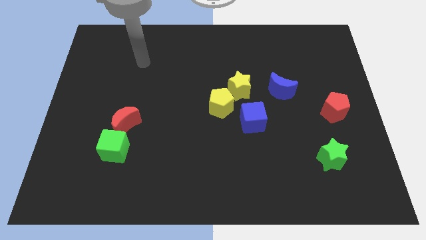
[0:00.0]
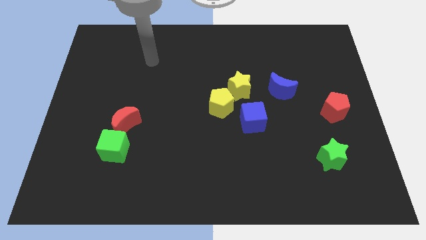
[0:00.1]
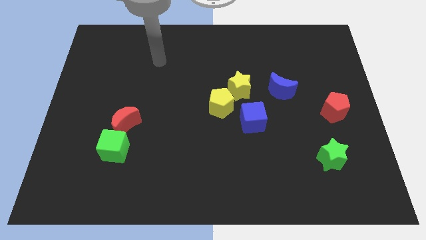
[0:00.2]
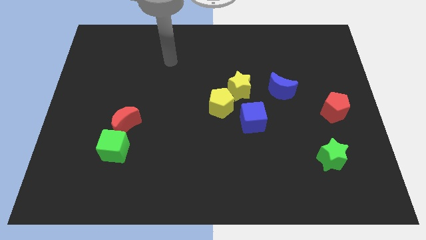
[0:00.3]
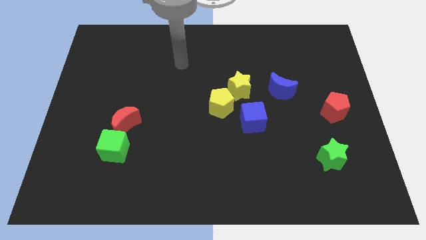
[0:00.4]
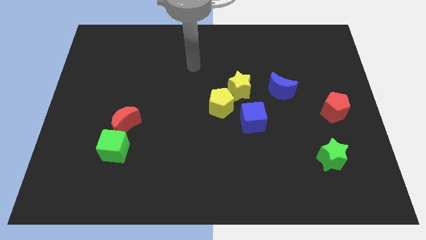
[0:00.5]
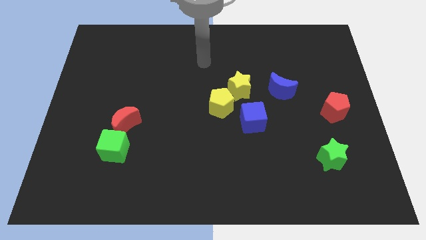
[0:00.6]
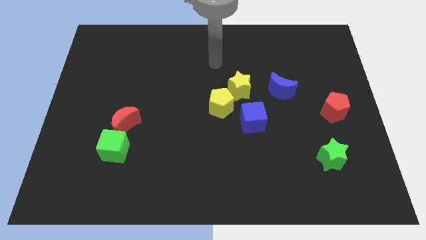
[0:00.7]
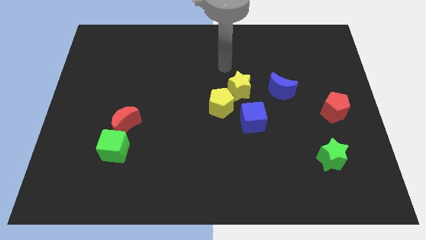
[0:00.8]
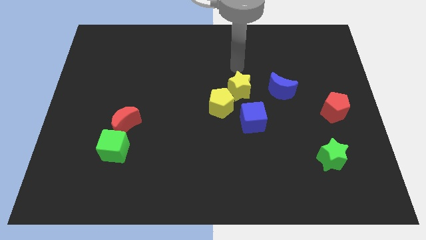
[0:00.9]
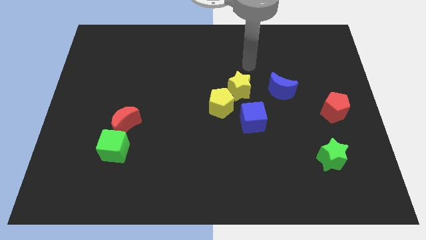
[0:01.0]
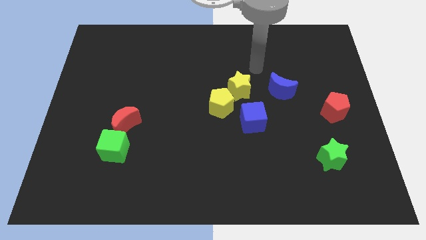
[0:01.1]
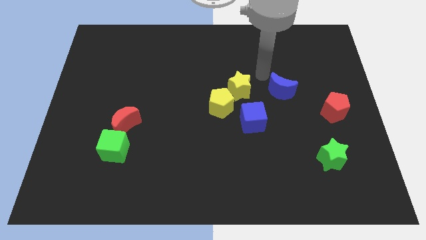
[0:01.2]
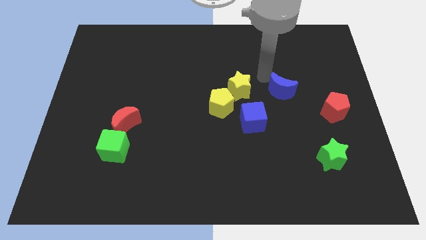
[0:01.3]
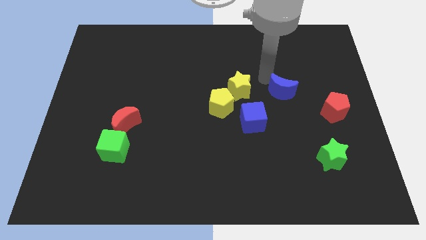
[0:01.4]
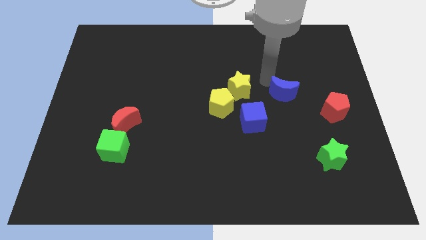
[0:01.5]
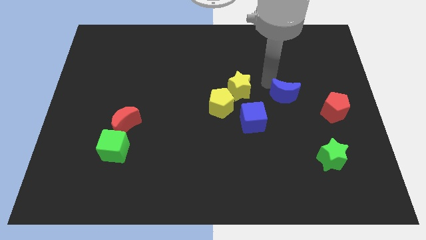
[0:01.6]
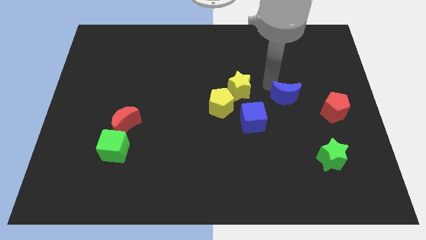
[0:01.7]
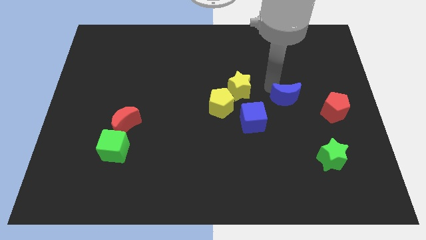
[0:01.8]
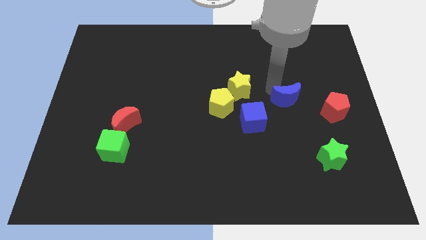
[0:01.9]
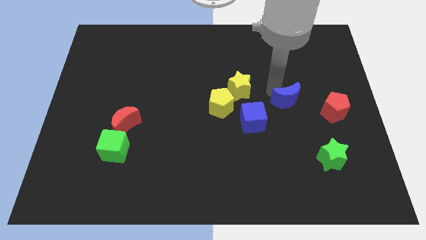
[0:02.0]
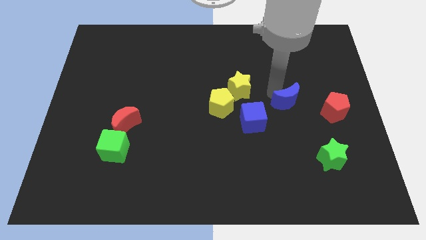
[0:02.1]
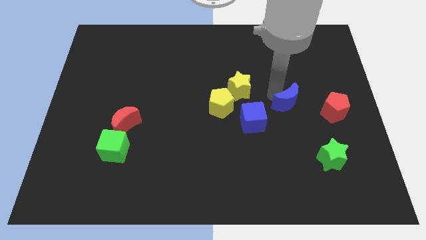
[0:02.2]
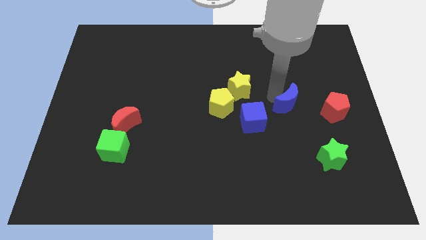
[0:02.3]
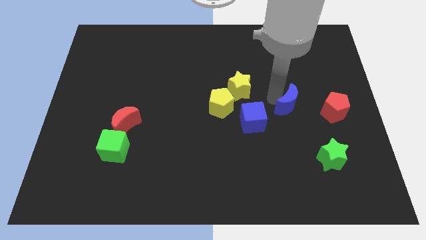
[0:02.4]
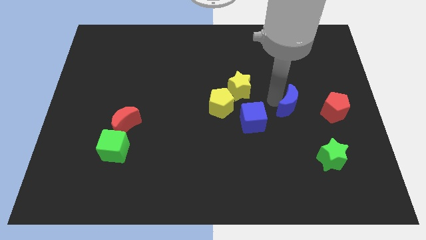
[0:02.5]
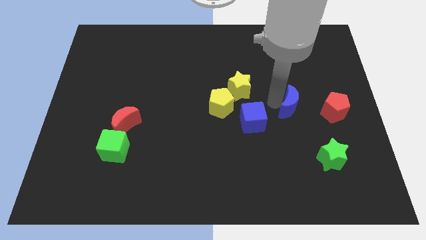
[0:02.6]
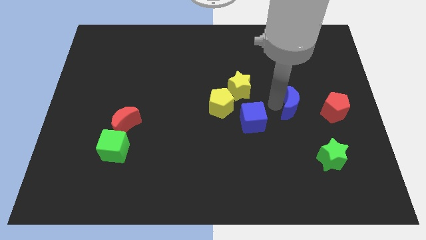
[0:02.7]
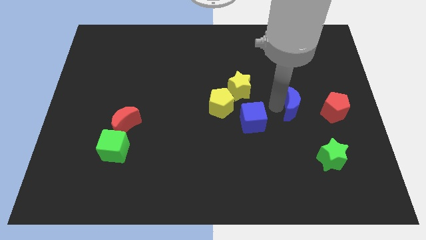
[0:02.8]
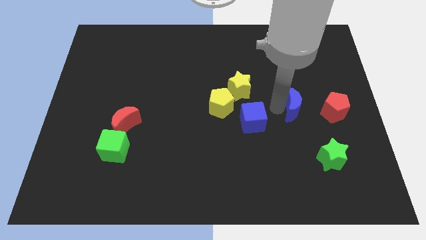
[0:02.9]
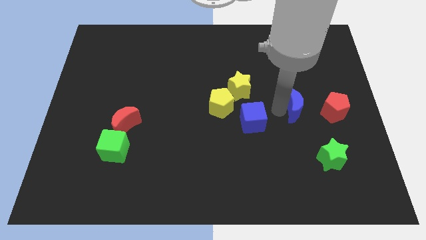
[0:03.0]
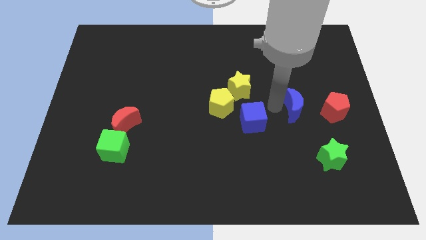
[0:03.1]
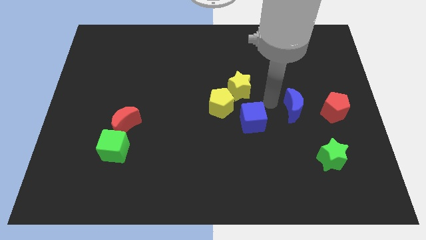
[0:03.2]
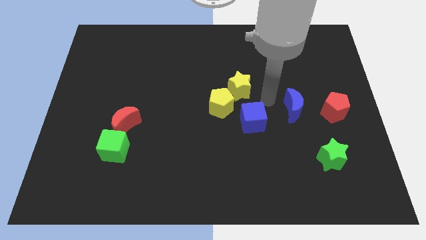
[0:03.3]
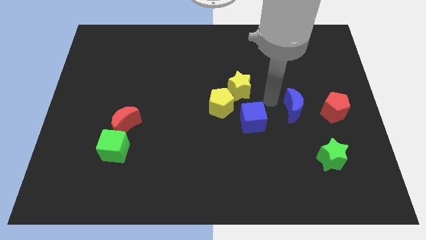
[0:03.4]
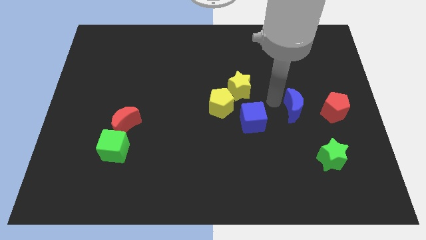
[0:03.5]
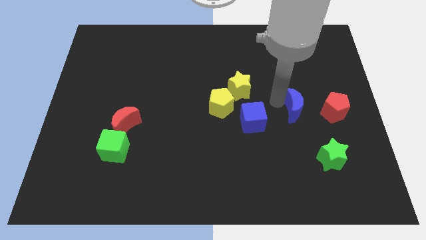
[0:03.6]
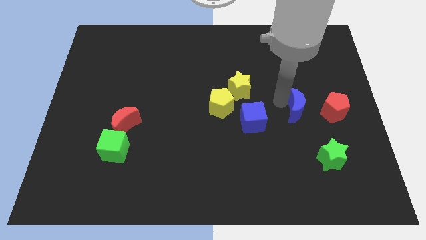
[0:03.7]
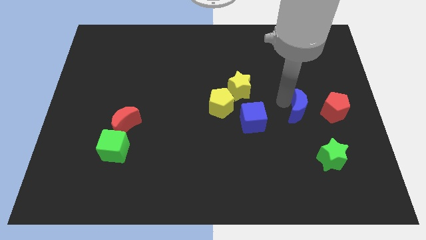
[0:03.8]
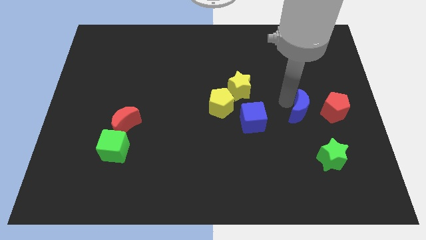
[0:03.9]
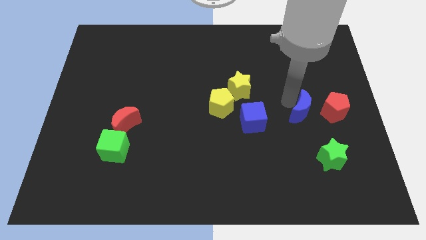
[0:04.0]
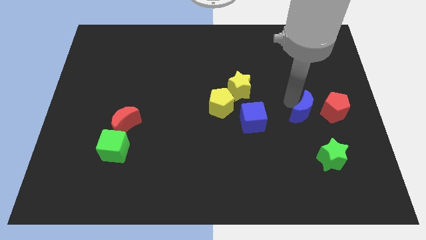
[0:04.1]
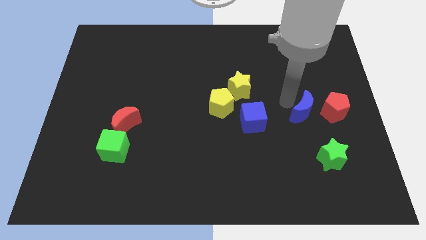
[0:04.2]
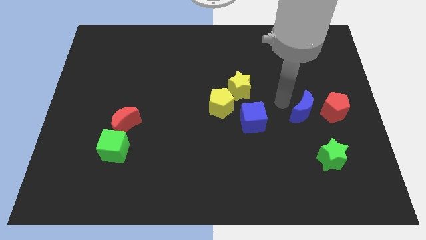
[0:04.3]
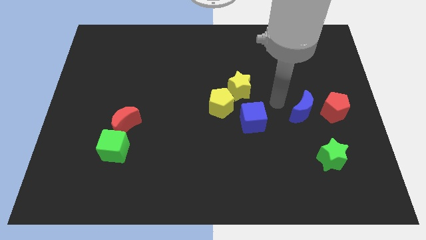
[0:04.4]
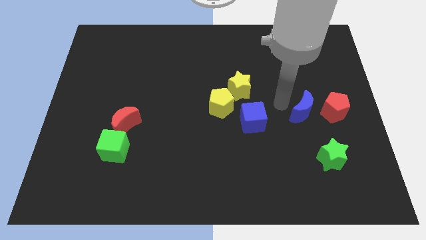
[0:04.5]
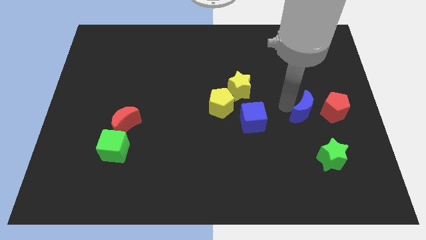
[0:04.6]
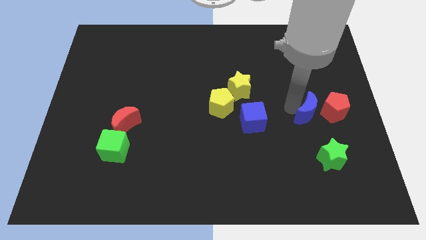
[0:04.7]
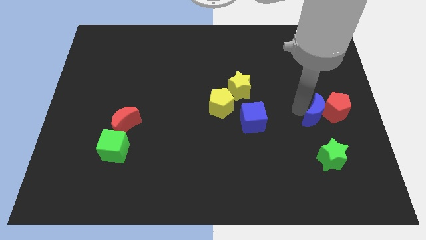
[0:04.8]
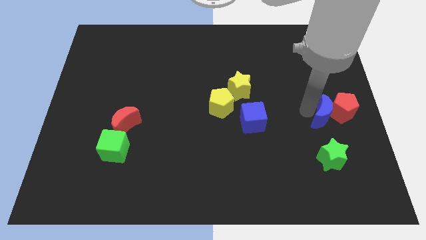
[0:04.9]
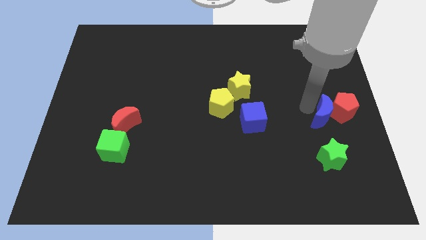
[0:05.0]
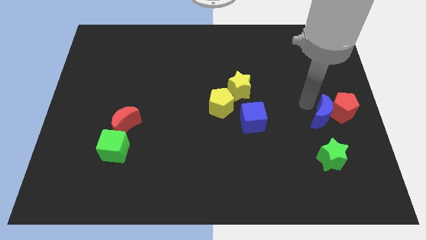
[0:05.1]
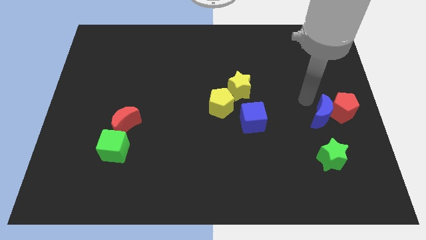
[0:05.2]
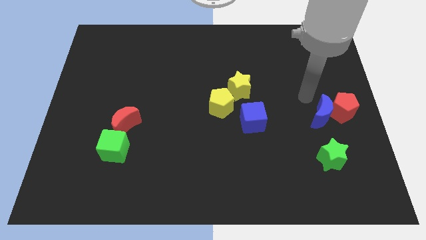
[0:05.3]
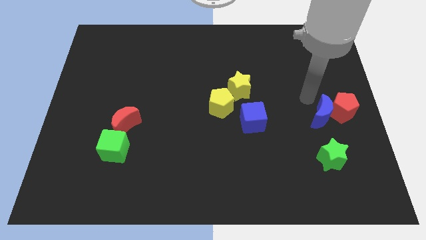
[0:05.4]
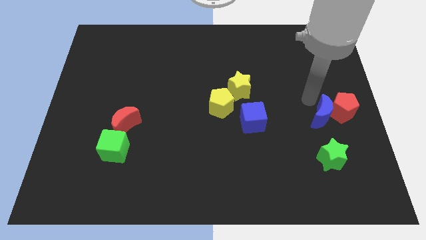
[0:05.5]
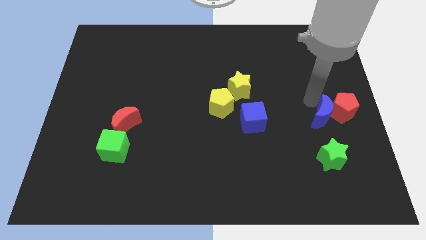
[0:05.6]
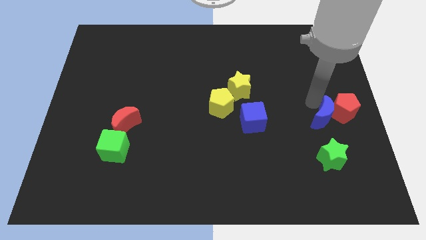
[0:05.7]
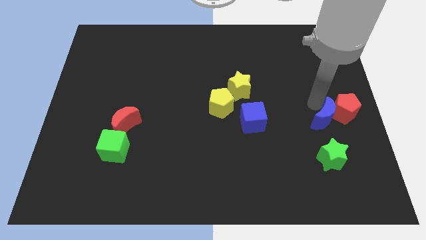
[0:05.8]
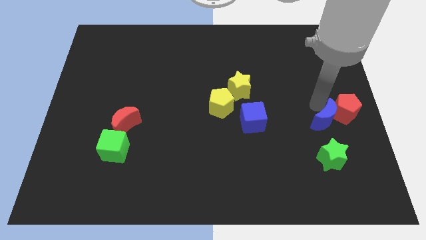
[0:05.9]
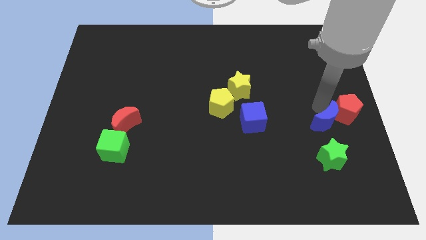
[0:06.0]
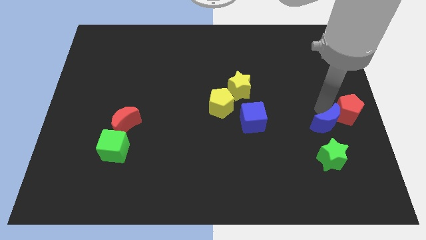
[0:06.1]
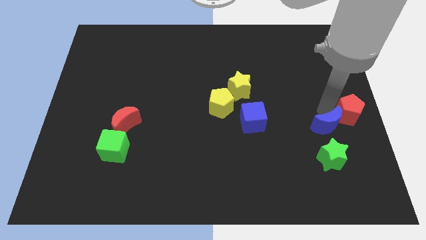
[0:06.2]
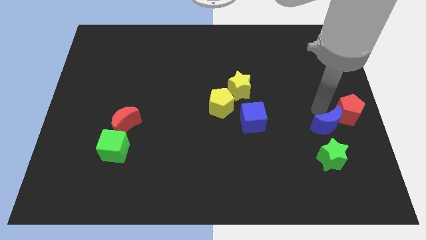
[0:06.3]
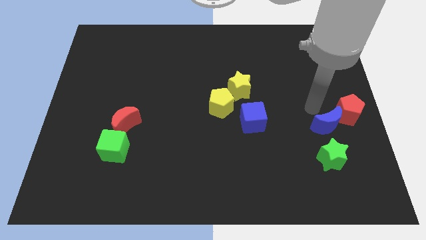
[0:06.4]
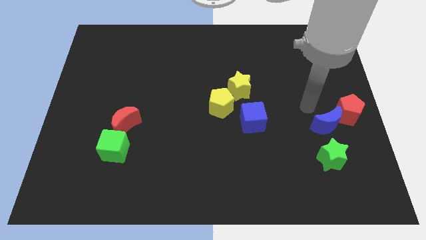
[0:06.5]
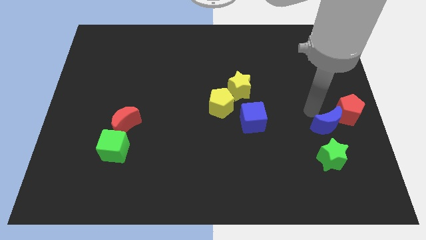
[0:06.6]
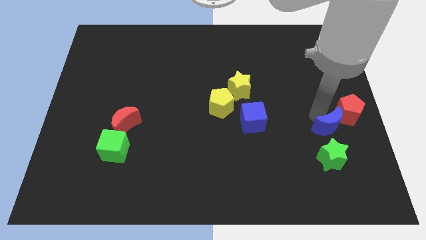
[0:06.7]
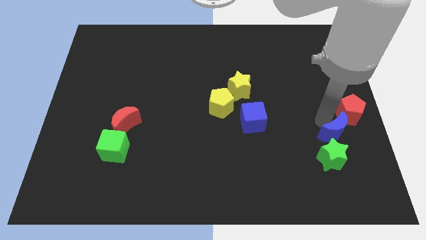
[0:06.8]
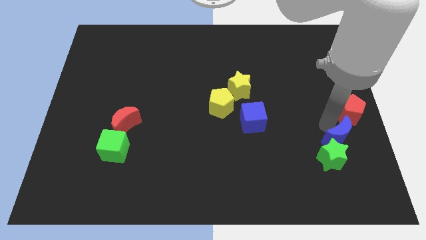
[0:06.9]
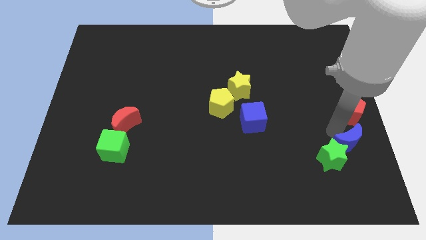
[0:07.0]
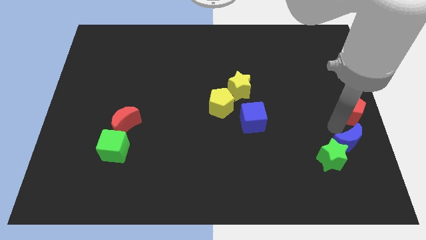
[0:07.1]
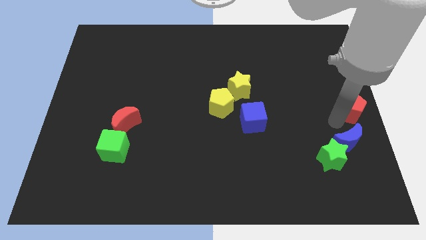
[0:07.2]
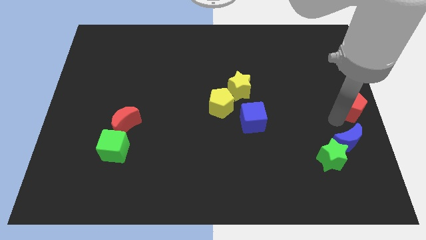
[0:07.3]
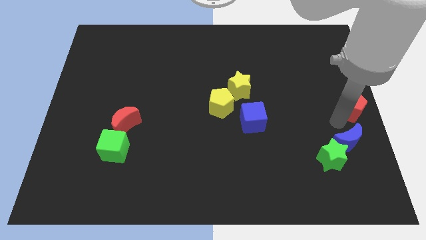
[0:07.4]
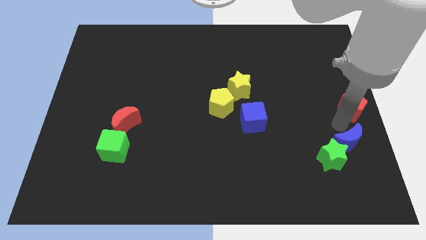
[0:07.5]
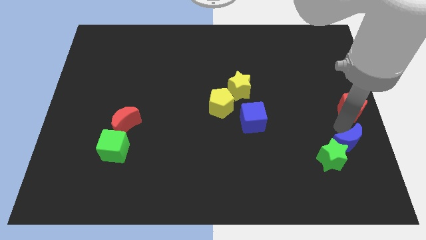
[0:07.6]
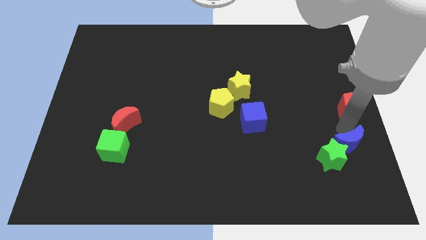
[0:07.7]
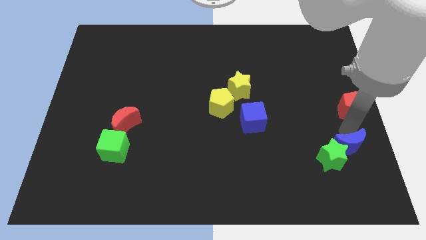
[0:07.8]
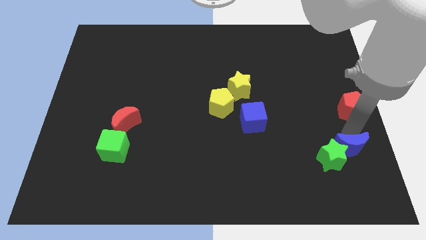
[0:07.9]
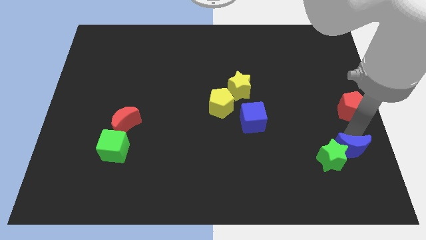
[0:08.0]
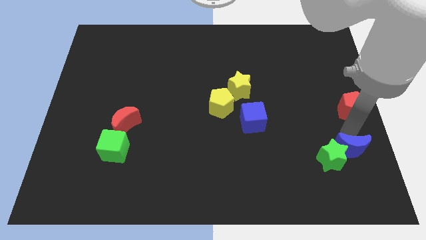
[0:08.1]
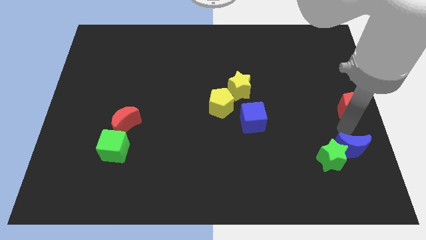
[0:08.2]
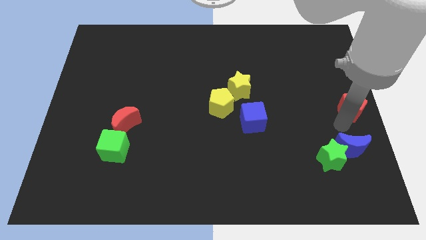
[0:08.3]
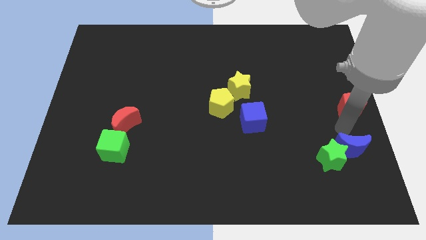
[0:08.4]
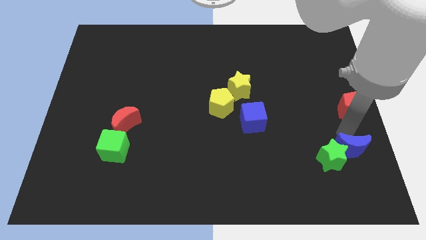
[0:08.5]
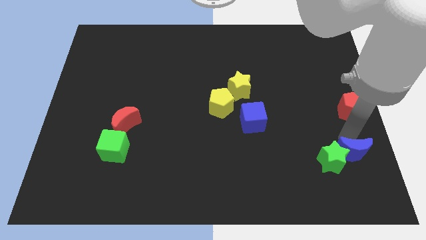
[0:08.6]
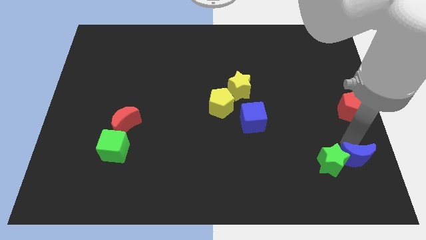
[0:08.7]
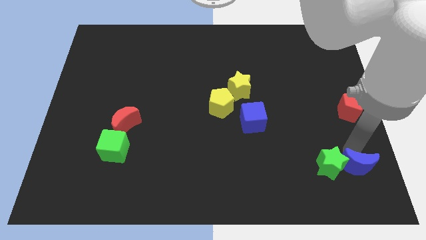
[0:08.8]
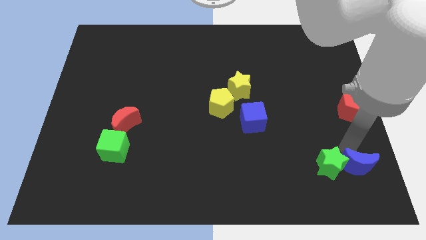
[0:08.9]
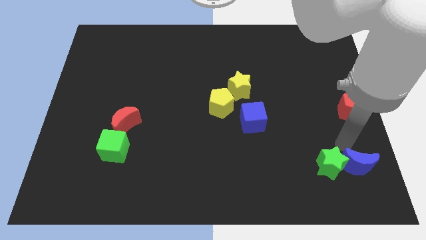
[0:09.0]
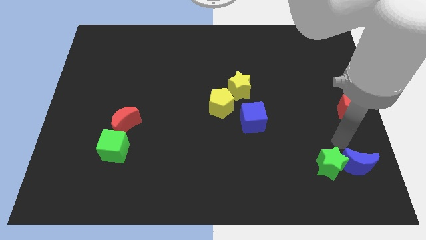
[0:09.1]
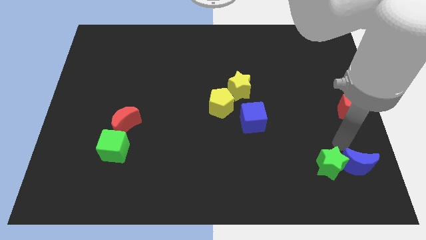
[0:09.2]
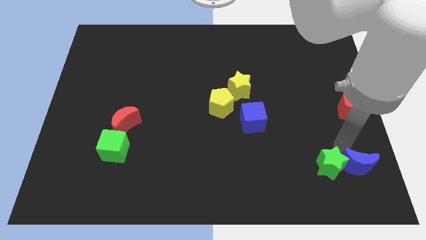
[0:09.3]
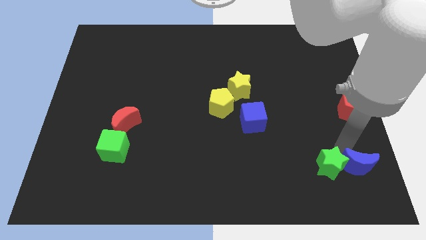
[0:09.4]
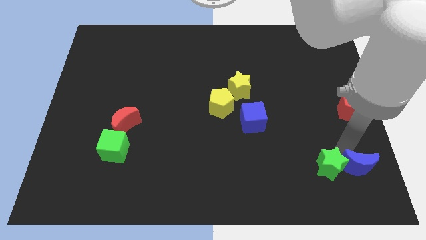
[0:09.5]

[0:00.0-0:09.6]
move the blue moon to the bottom right corner
